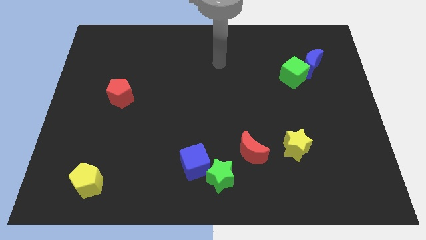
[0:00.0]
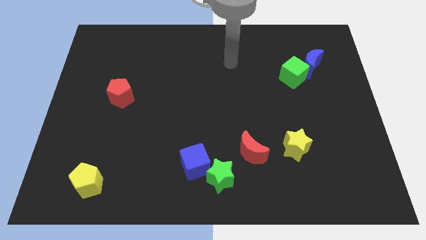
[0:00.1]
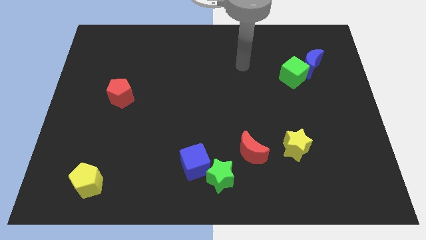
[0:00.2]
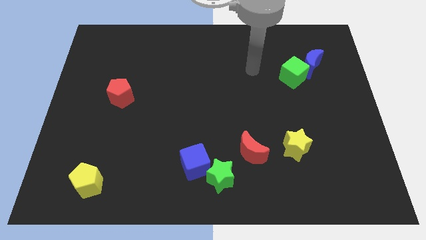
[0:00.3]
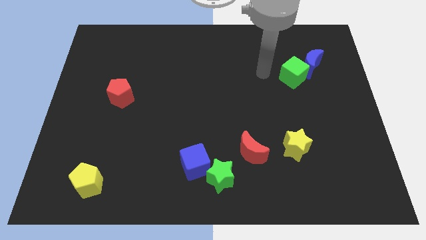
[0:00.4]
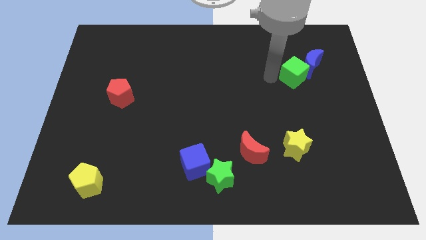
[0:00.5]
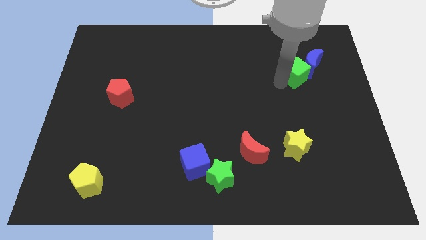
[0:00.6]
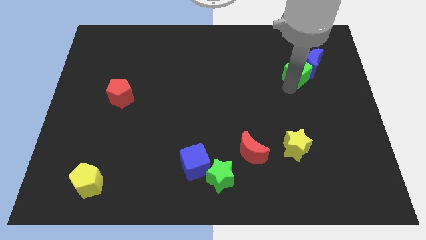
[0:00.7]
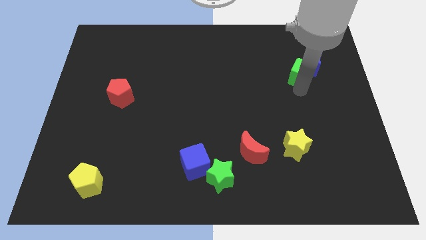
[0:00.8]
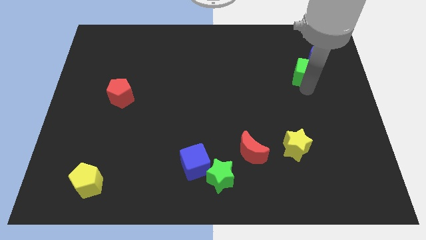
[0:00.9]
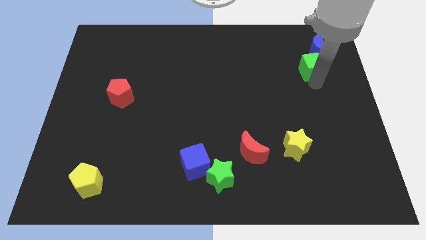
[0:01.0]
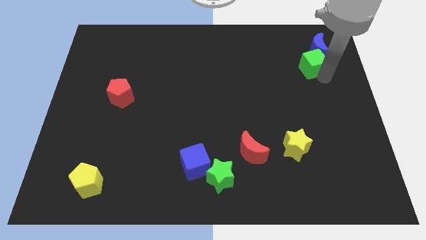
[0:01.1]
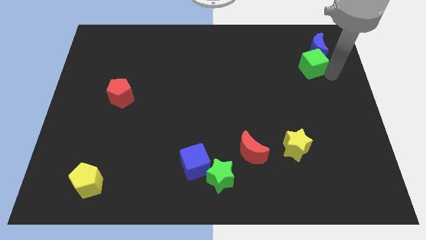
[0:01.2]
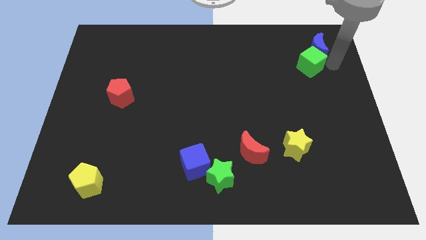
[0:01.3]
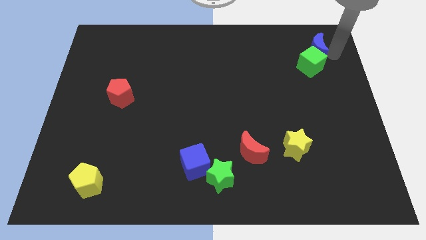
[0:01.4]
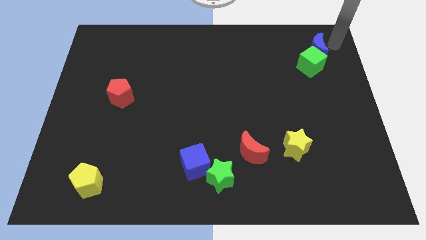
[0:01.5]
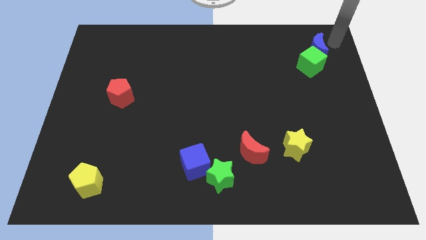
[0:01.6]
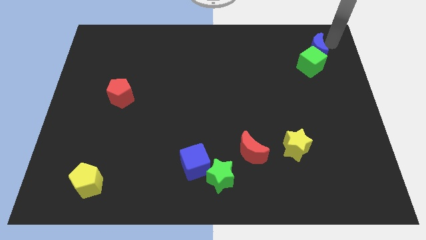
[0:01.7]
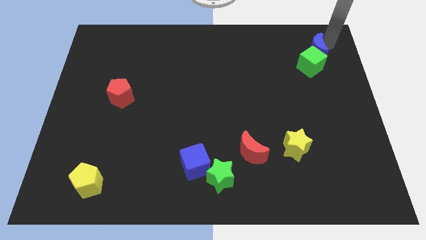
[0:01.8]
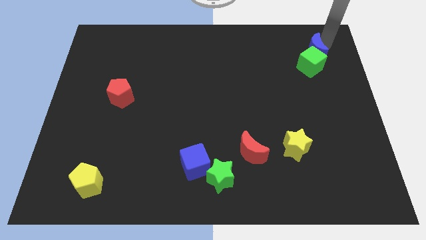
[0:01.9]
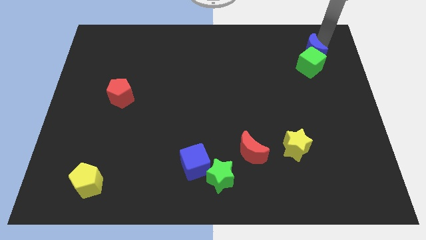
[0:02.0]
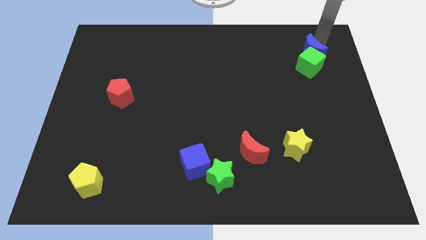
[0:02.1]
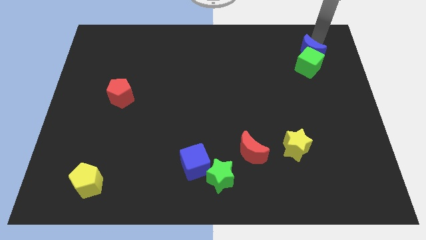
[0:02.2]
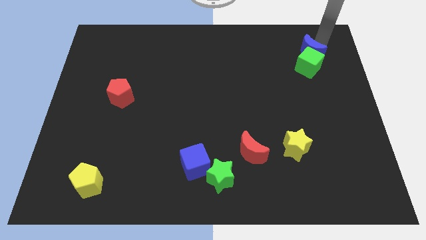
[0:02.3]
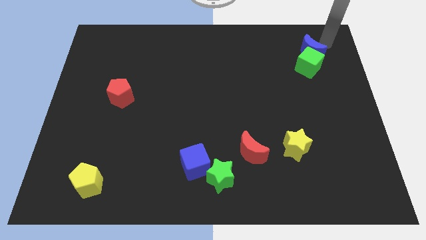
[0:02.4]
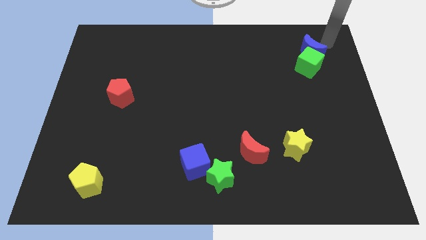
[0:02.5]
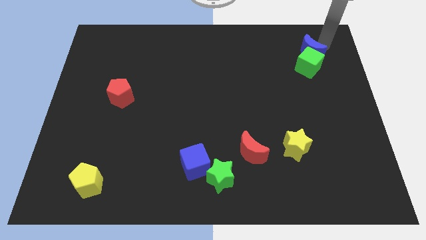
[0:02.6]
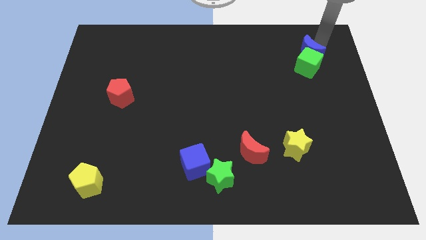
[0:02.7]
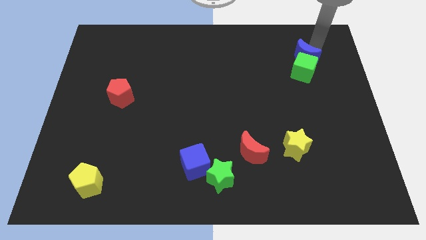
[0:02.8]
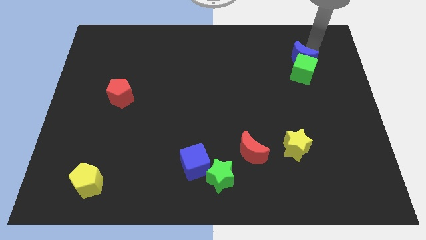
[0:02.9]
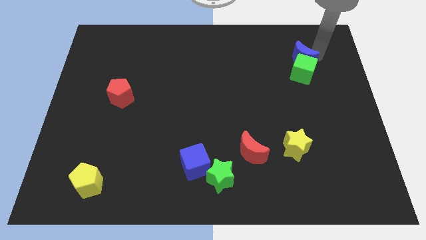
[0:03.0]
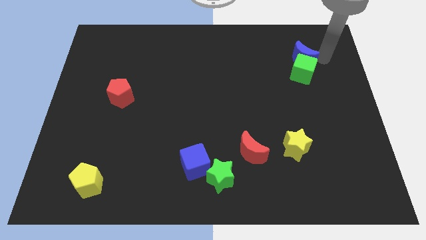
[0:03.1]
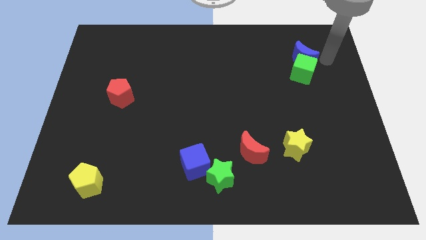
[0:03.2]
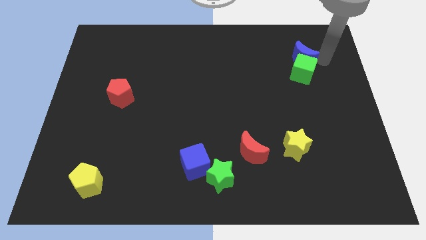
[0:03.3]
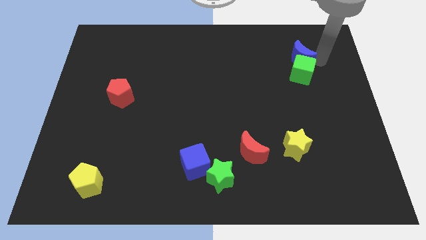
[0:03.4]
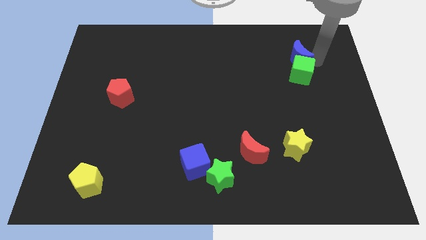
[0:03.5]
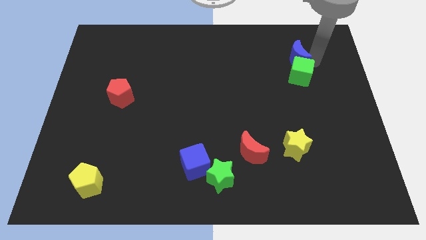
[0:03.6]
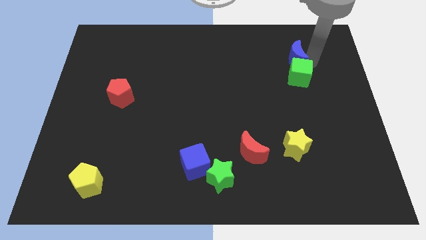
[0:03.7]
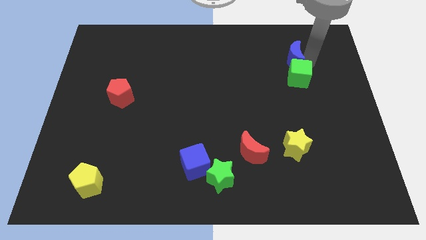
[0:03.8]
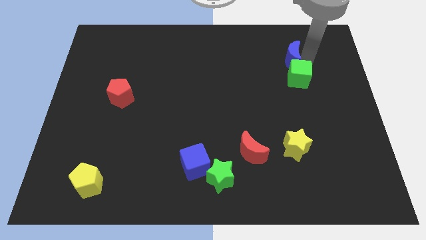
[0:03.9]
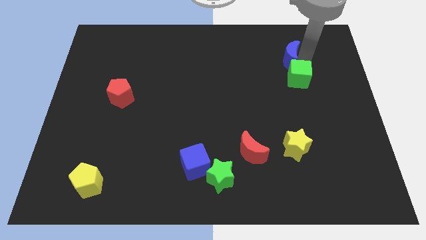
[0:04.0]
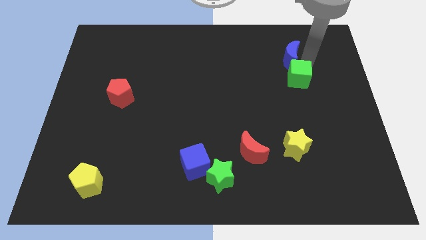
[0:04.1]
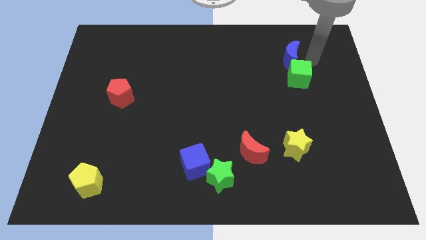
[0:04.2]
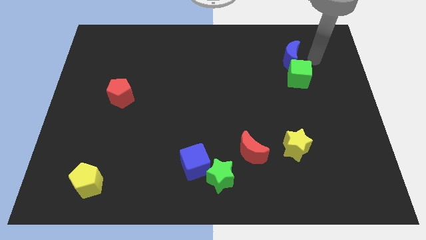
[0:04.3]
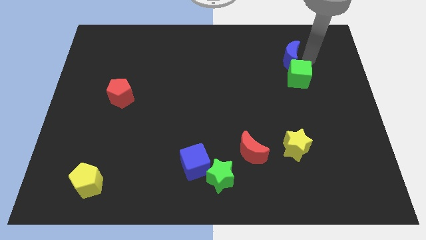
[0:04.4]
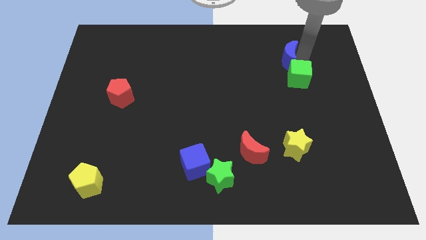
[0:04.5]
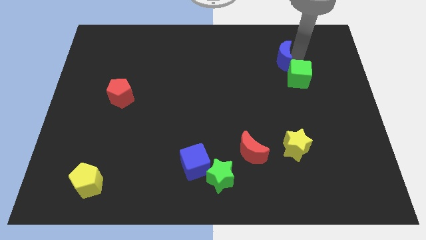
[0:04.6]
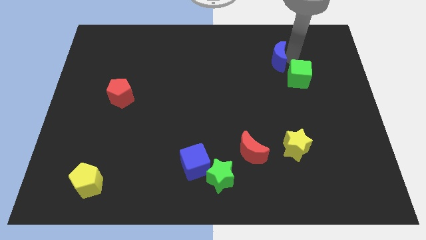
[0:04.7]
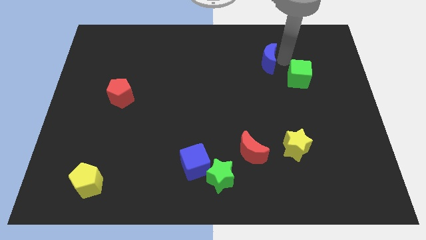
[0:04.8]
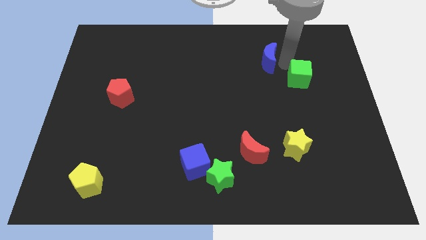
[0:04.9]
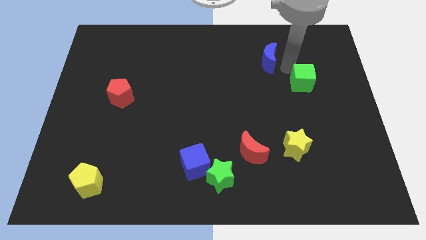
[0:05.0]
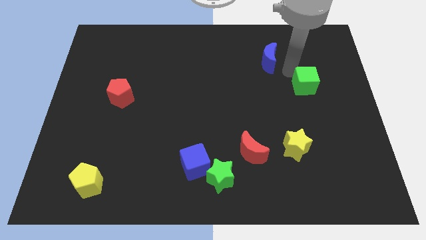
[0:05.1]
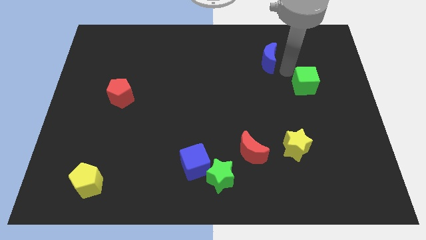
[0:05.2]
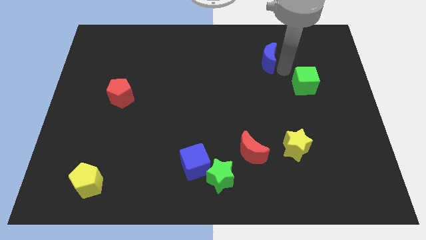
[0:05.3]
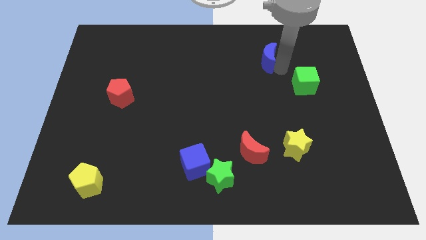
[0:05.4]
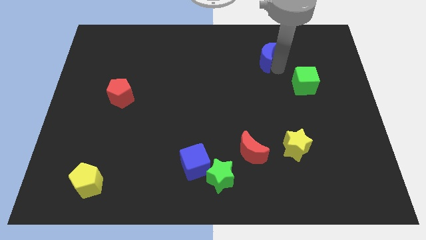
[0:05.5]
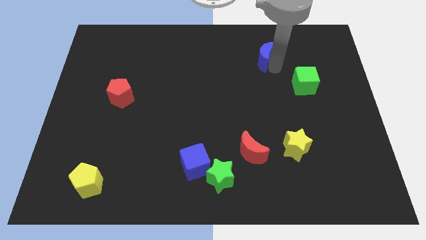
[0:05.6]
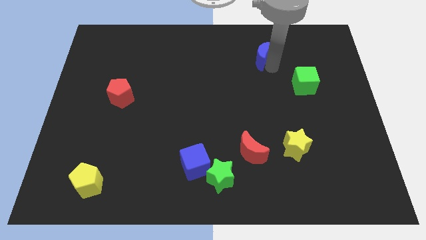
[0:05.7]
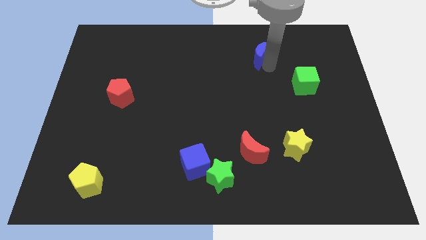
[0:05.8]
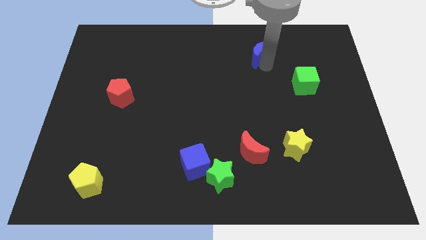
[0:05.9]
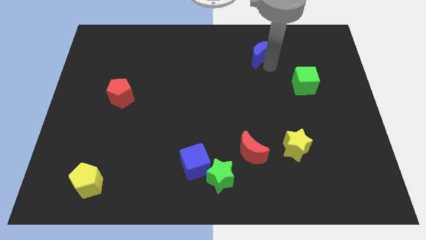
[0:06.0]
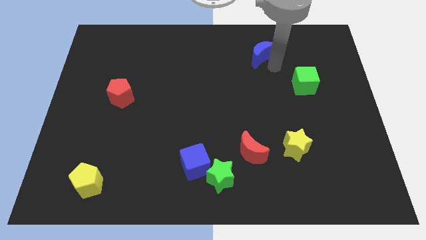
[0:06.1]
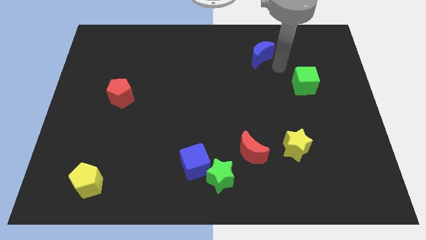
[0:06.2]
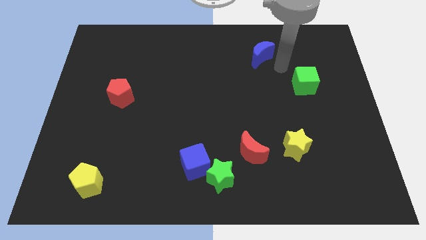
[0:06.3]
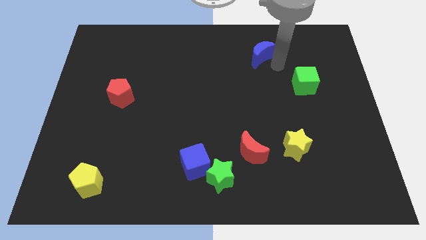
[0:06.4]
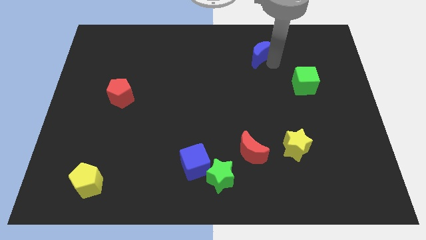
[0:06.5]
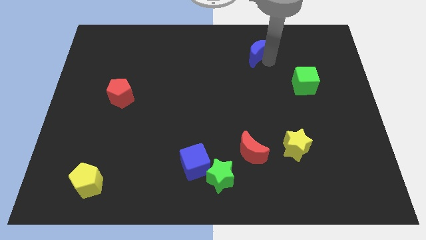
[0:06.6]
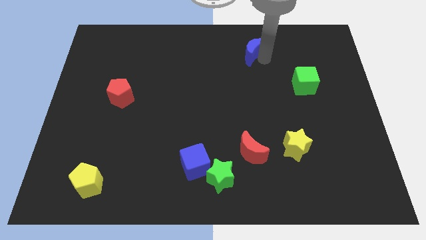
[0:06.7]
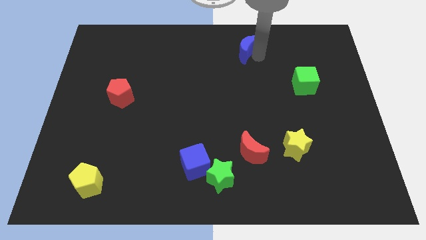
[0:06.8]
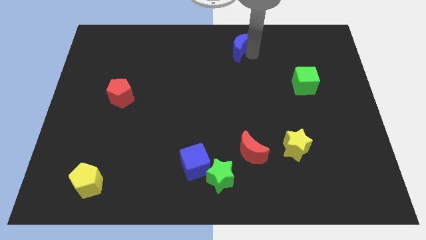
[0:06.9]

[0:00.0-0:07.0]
put the blue moon to the towards your base

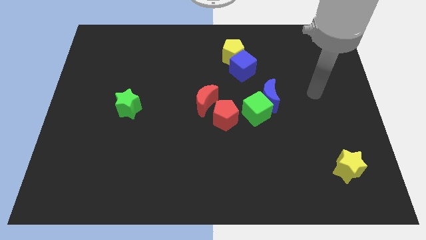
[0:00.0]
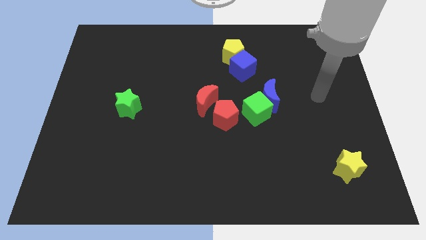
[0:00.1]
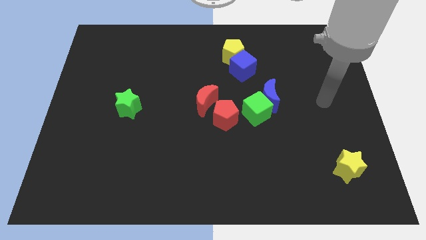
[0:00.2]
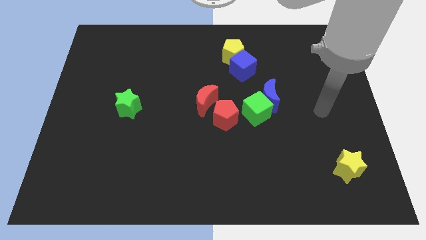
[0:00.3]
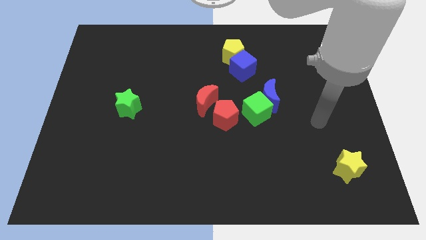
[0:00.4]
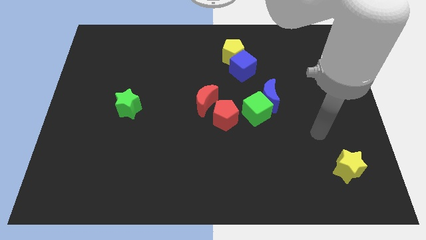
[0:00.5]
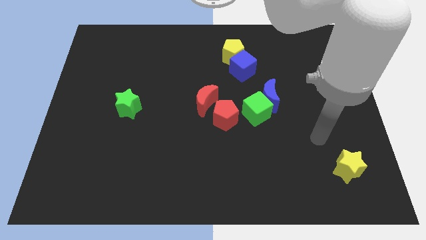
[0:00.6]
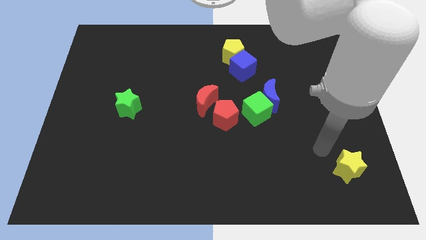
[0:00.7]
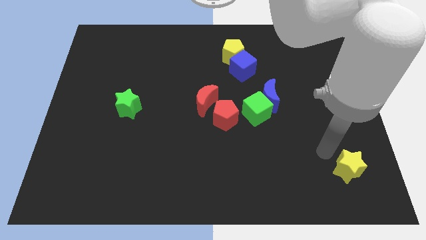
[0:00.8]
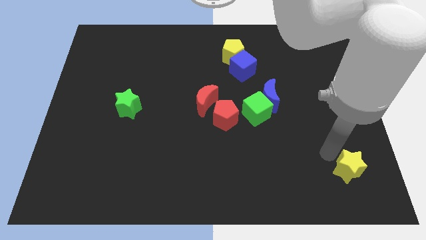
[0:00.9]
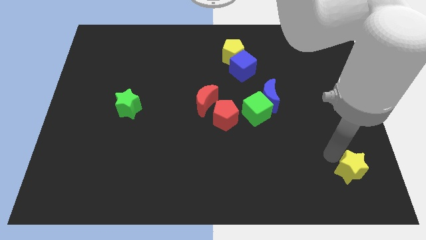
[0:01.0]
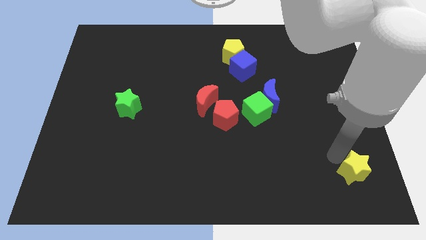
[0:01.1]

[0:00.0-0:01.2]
move the yellow star to the bottom right of the board
